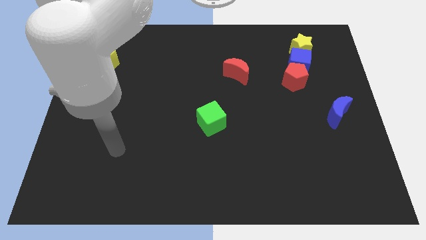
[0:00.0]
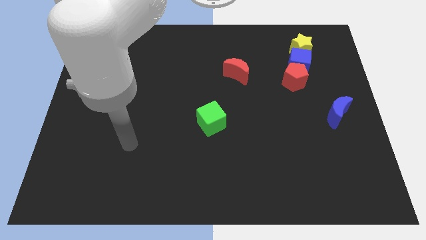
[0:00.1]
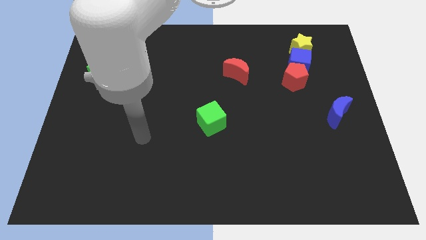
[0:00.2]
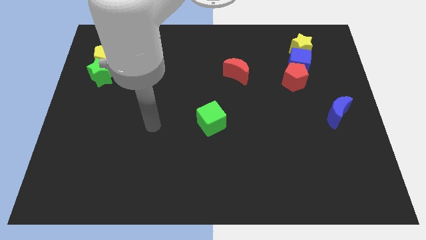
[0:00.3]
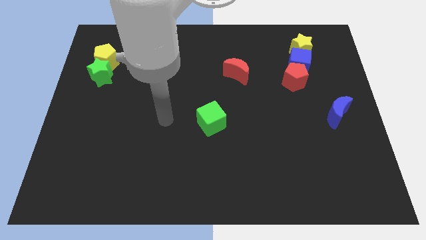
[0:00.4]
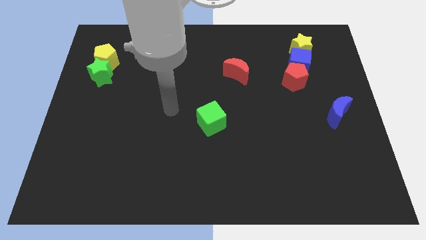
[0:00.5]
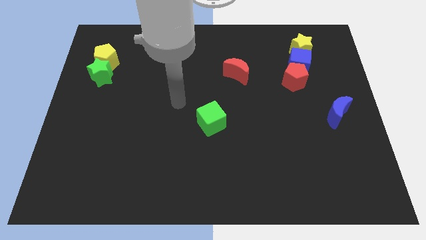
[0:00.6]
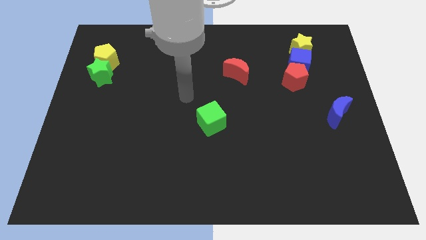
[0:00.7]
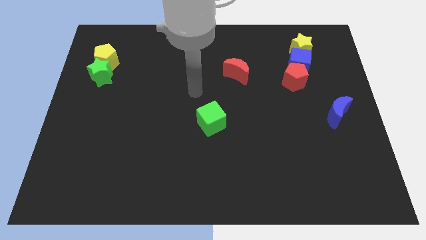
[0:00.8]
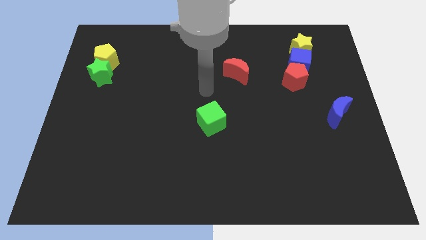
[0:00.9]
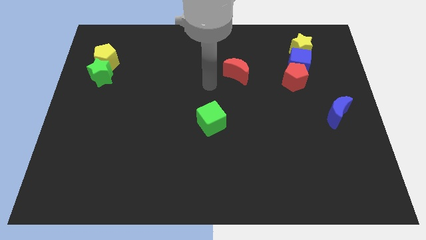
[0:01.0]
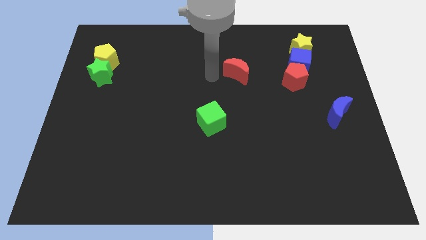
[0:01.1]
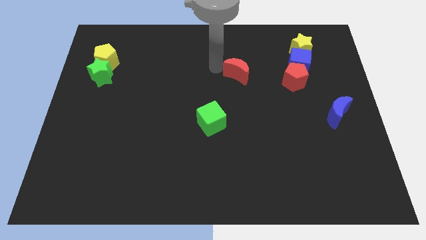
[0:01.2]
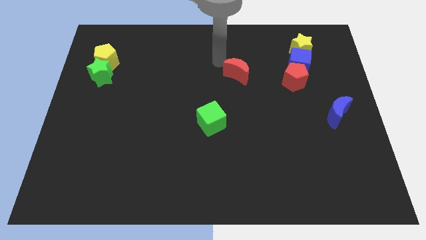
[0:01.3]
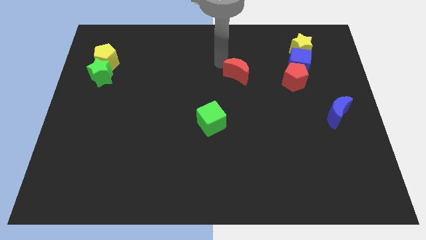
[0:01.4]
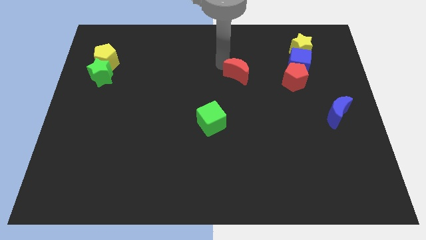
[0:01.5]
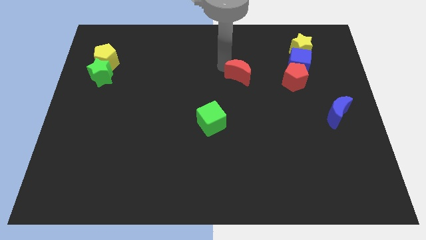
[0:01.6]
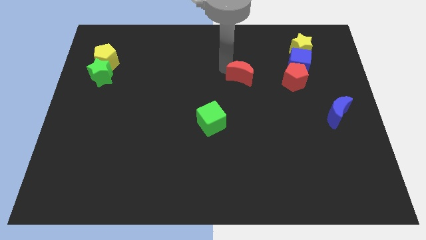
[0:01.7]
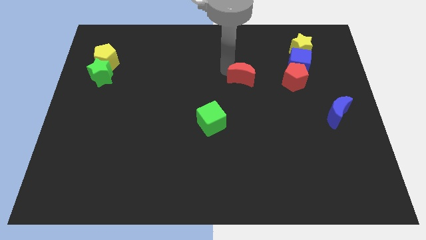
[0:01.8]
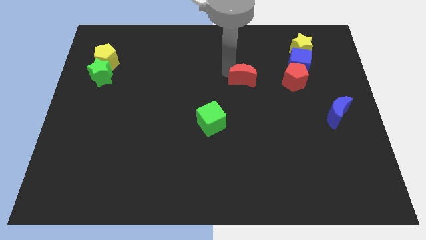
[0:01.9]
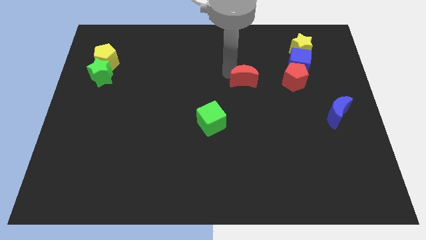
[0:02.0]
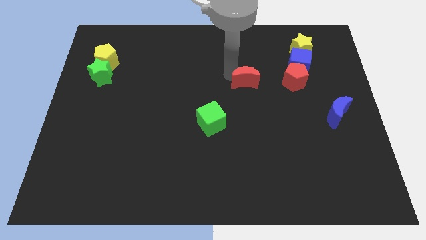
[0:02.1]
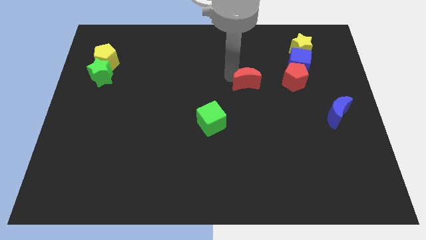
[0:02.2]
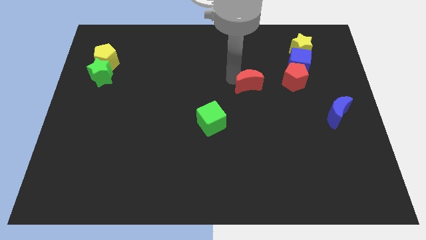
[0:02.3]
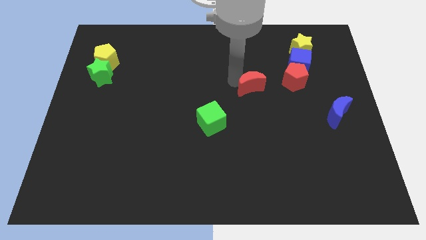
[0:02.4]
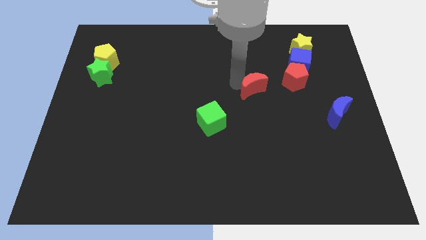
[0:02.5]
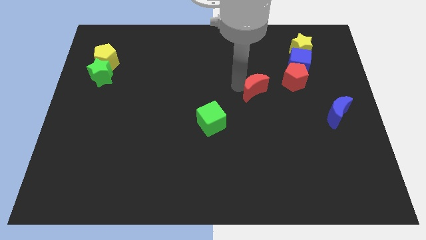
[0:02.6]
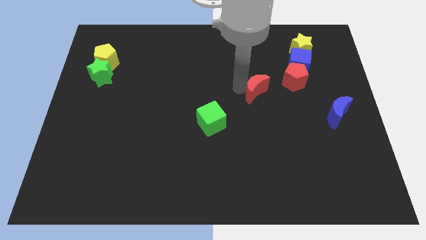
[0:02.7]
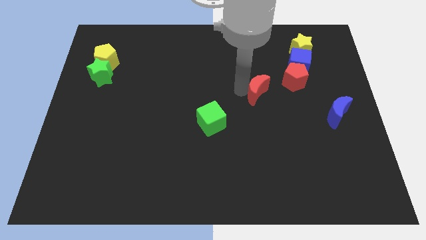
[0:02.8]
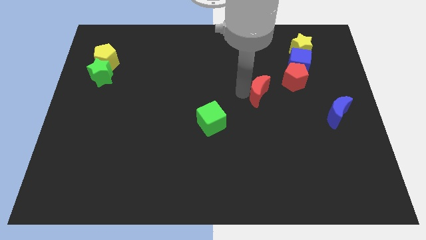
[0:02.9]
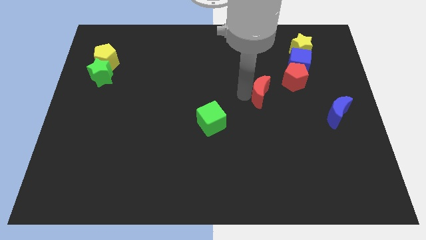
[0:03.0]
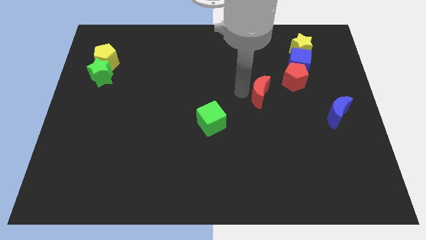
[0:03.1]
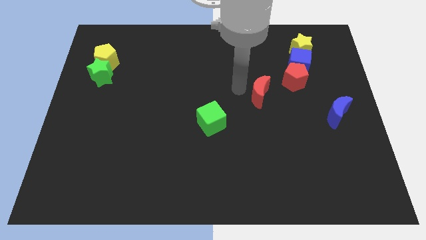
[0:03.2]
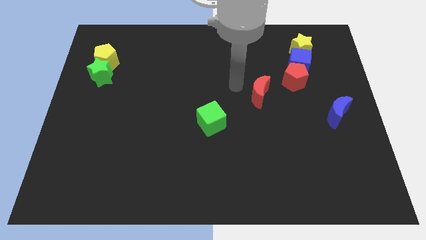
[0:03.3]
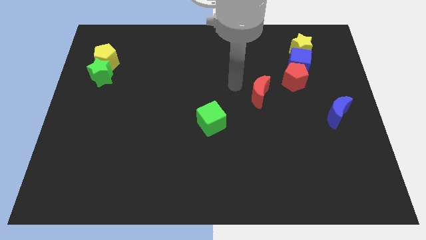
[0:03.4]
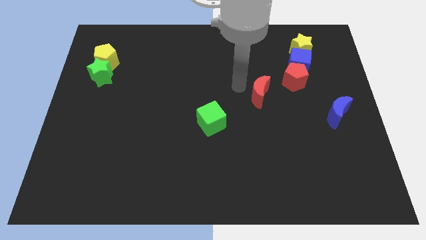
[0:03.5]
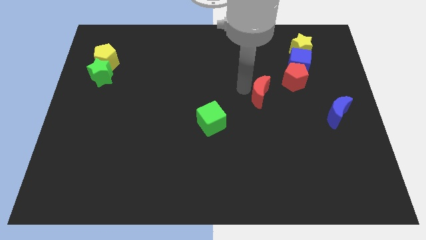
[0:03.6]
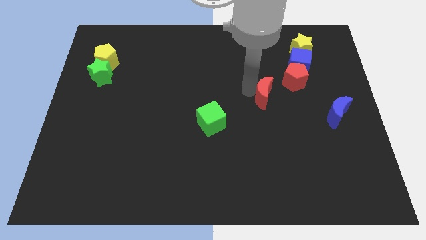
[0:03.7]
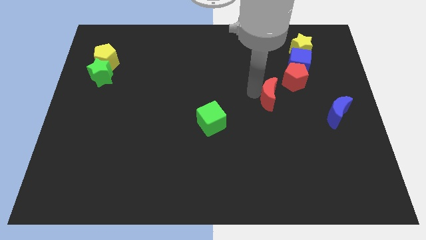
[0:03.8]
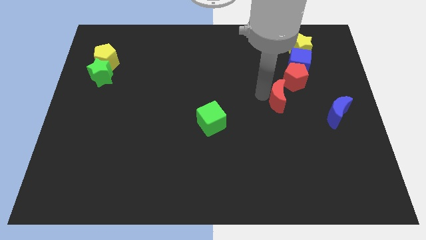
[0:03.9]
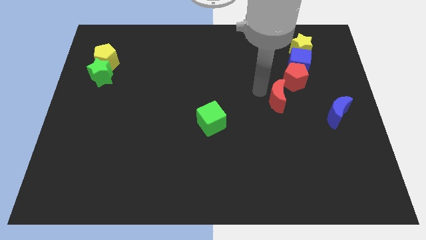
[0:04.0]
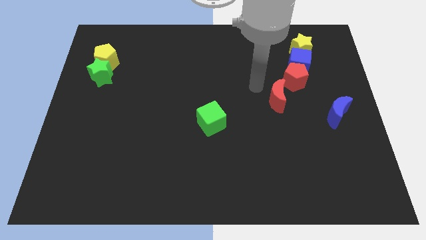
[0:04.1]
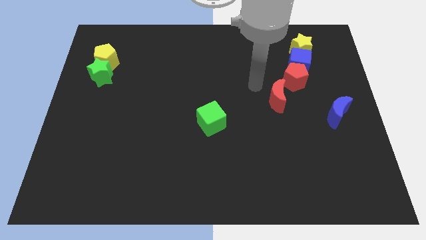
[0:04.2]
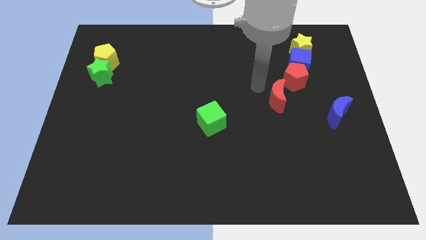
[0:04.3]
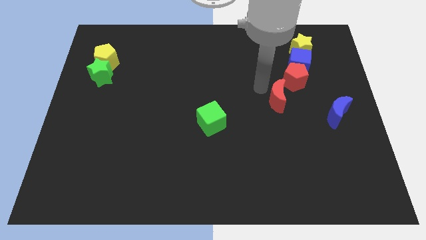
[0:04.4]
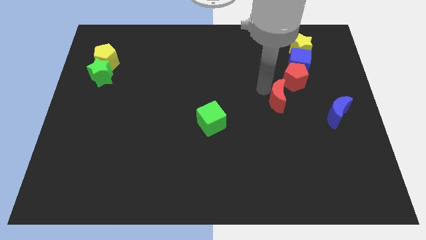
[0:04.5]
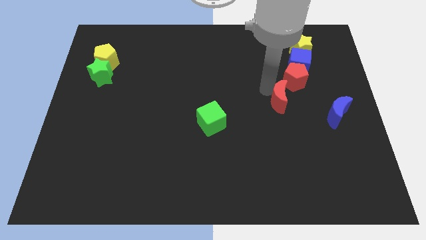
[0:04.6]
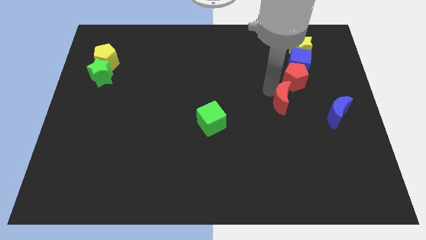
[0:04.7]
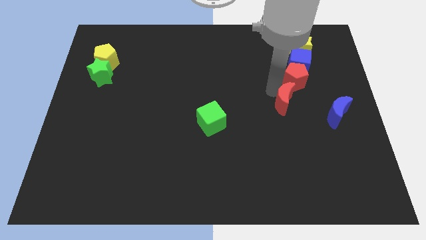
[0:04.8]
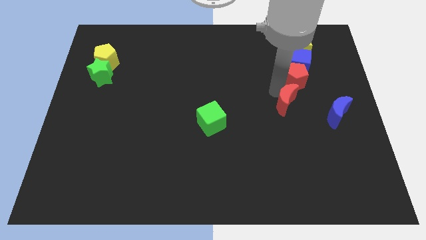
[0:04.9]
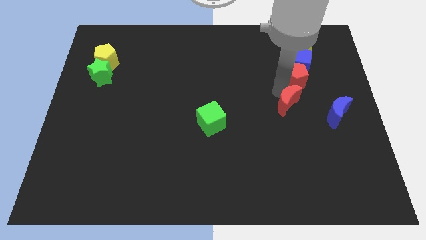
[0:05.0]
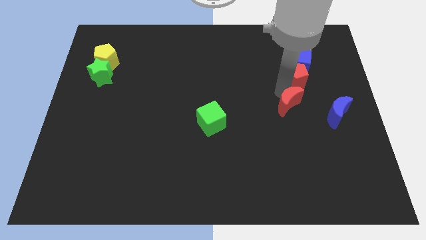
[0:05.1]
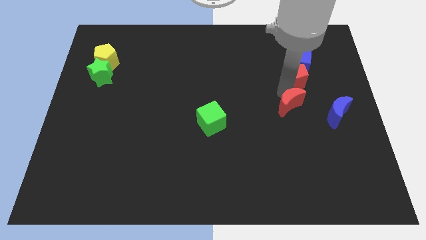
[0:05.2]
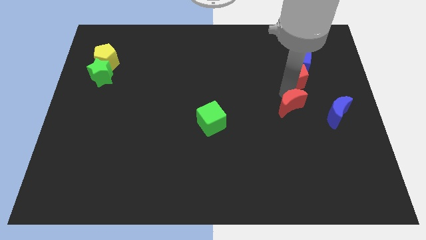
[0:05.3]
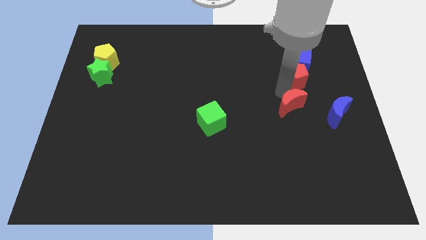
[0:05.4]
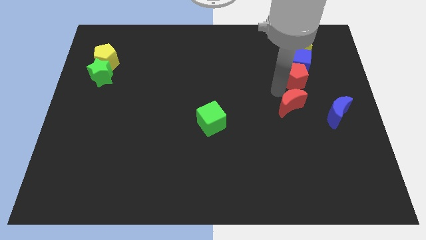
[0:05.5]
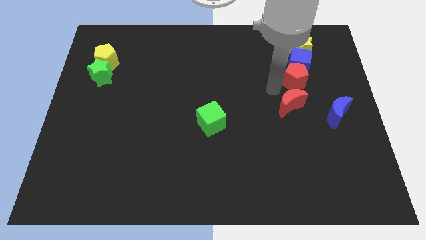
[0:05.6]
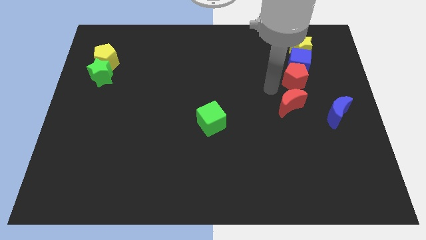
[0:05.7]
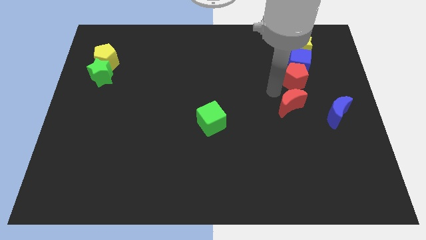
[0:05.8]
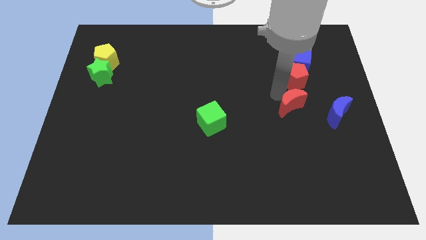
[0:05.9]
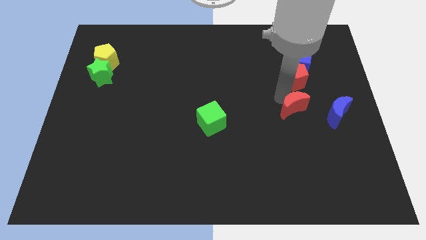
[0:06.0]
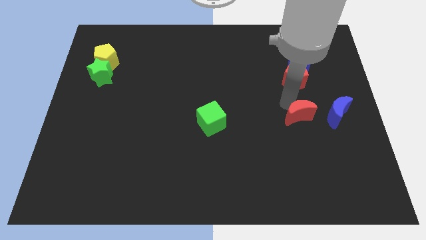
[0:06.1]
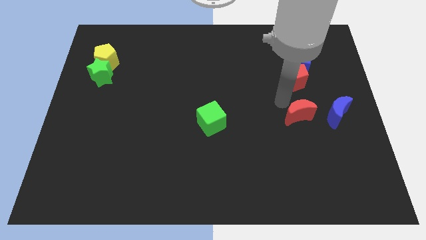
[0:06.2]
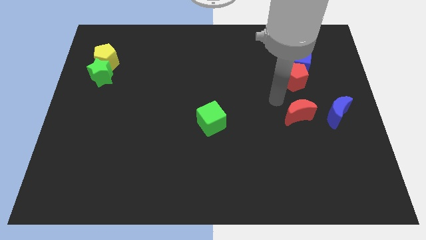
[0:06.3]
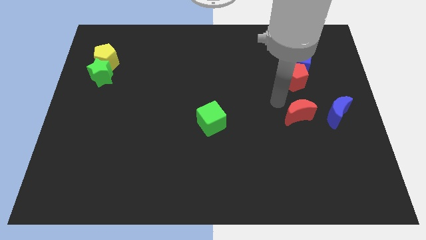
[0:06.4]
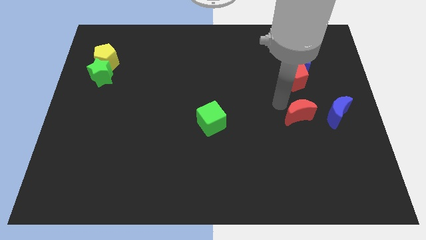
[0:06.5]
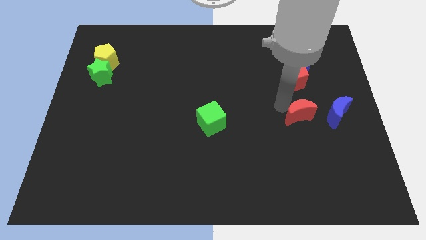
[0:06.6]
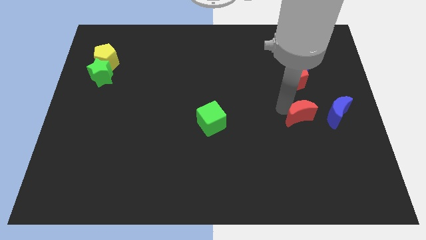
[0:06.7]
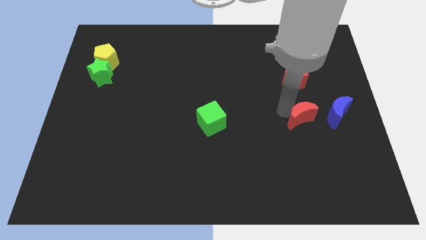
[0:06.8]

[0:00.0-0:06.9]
slide the red moon down and then to the right

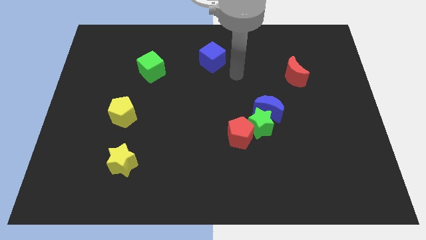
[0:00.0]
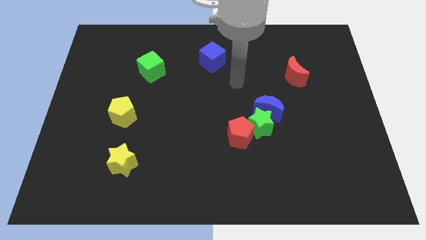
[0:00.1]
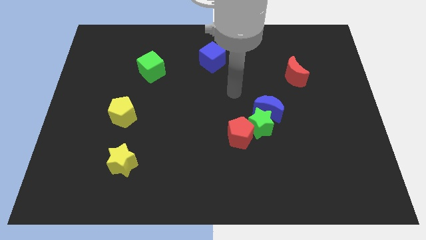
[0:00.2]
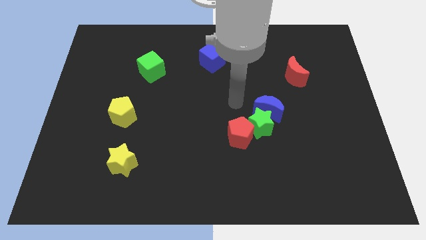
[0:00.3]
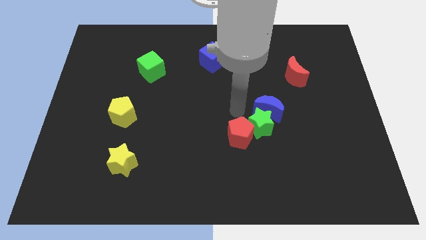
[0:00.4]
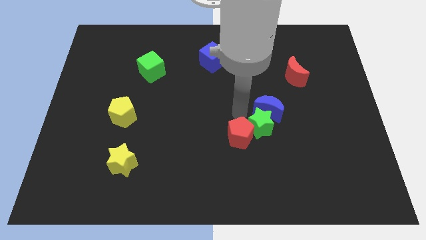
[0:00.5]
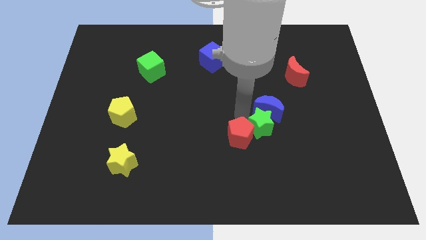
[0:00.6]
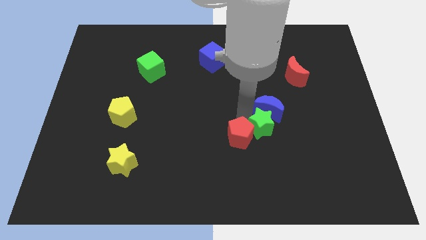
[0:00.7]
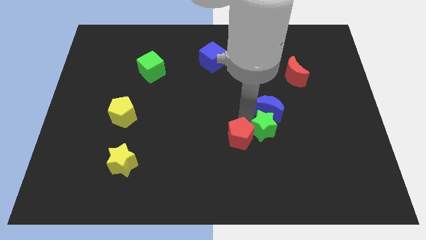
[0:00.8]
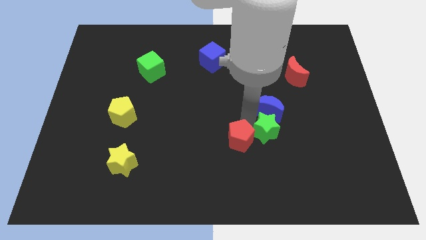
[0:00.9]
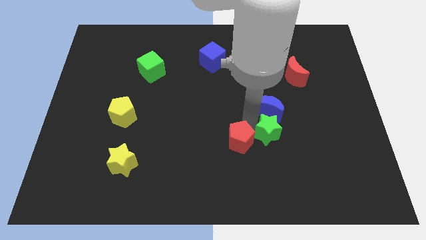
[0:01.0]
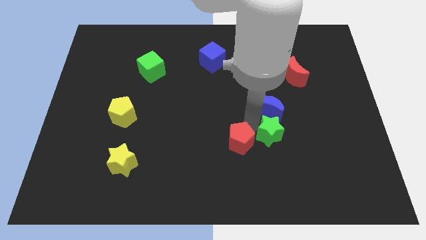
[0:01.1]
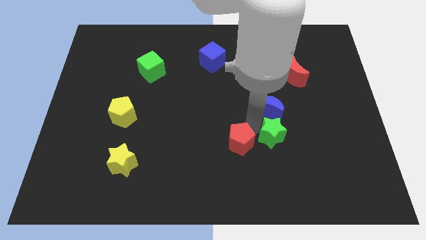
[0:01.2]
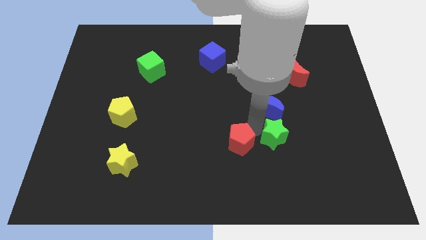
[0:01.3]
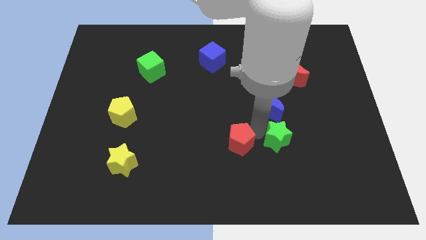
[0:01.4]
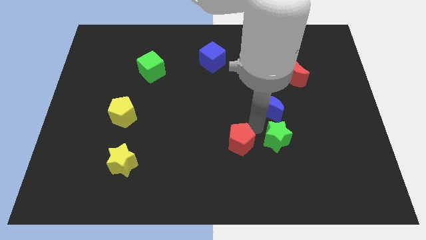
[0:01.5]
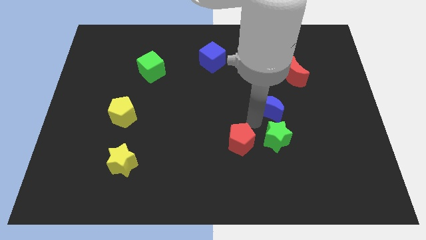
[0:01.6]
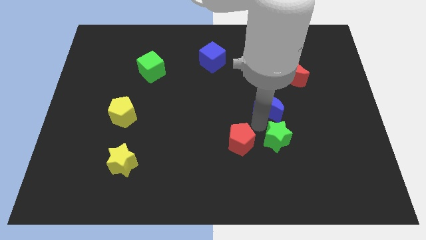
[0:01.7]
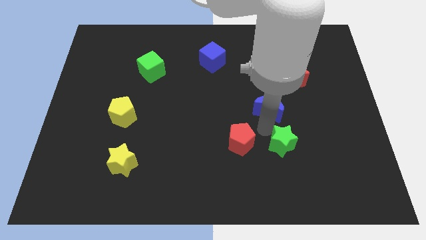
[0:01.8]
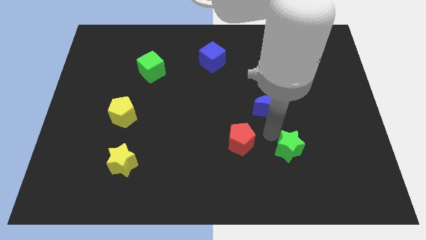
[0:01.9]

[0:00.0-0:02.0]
move the green star a bit downwards and to the right
